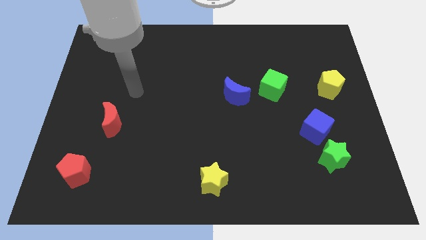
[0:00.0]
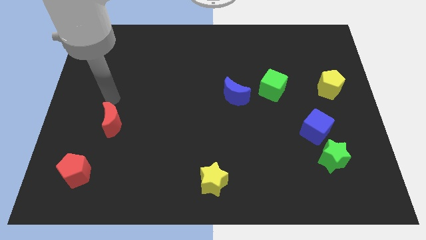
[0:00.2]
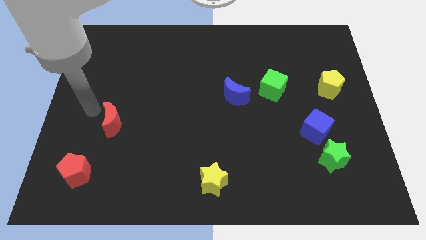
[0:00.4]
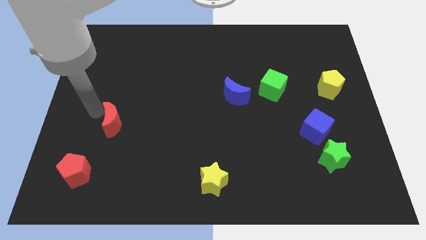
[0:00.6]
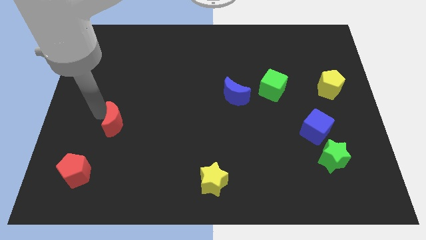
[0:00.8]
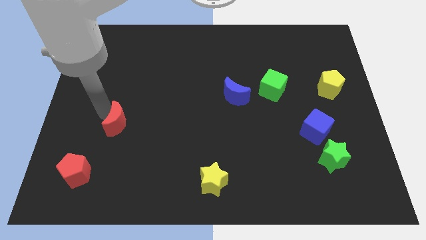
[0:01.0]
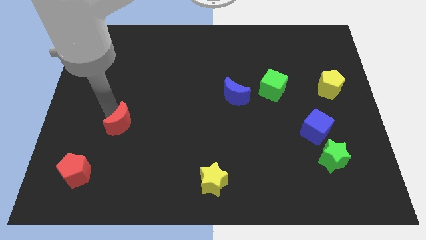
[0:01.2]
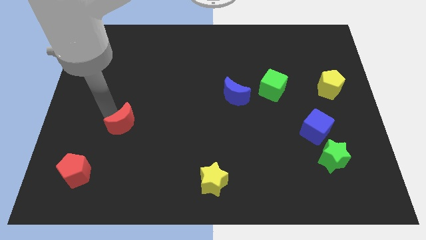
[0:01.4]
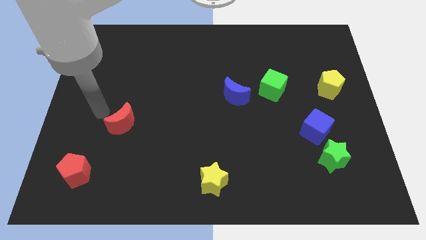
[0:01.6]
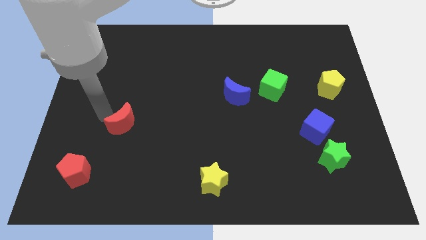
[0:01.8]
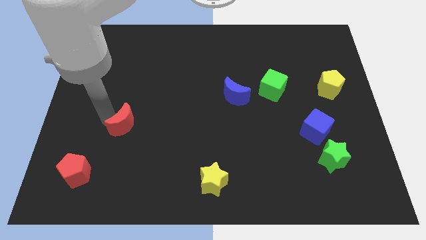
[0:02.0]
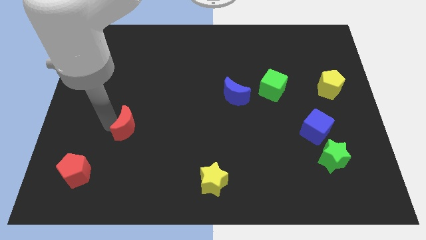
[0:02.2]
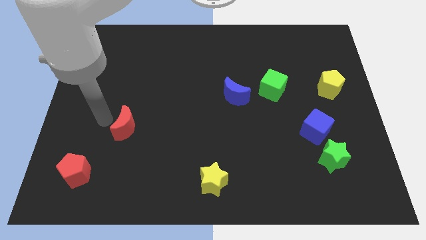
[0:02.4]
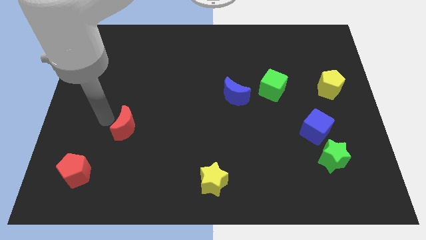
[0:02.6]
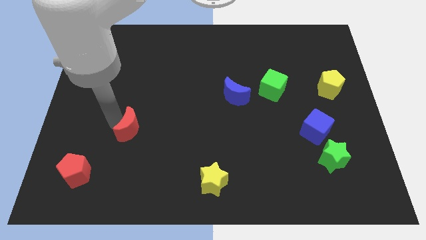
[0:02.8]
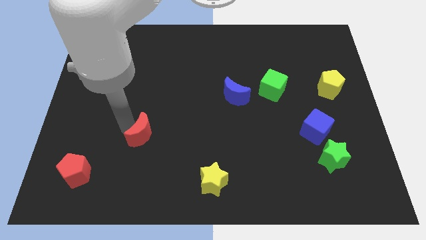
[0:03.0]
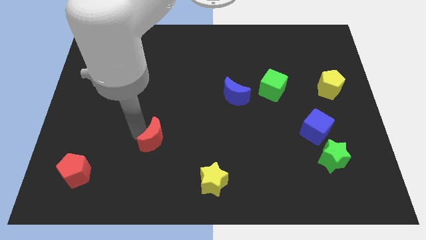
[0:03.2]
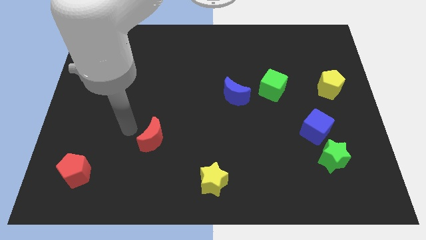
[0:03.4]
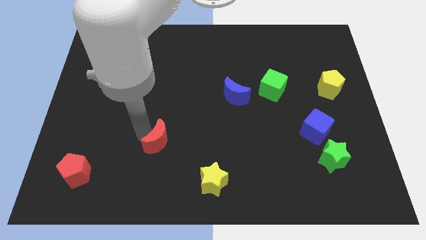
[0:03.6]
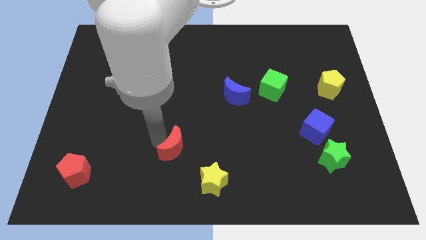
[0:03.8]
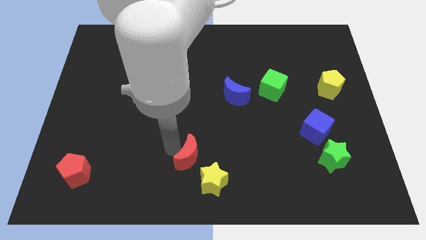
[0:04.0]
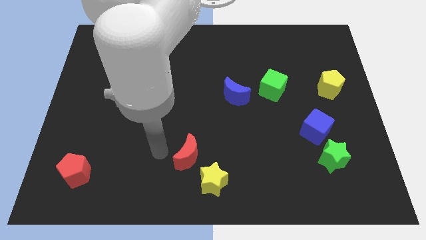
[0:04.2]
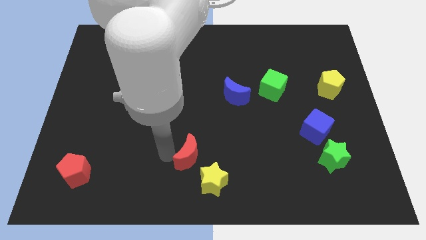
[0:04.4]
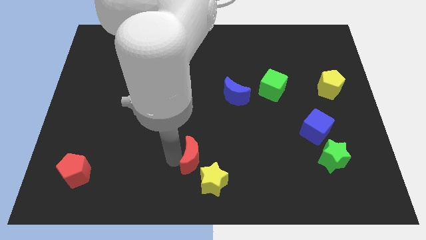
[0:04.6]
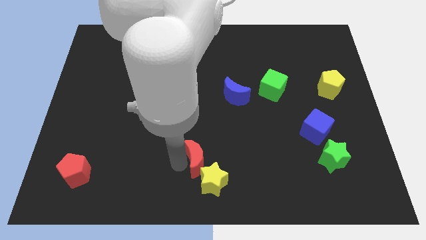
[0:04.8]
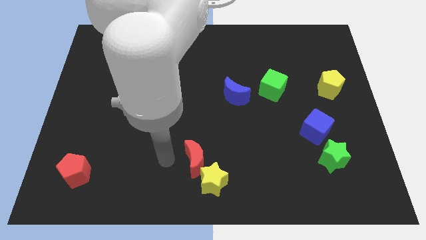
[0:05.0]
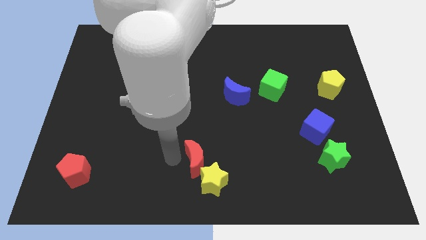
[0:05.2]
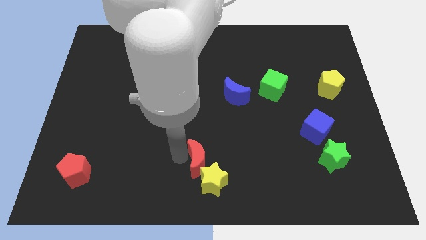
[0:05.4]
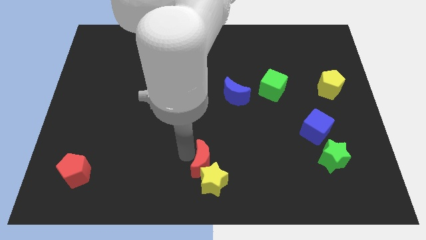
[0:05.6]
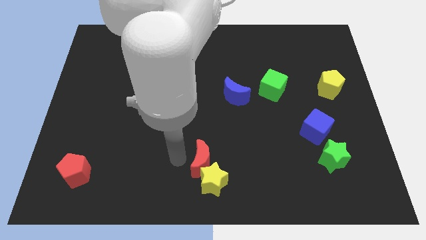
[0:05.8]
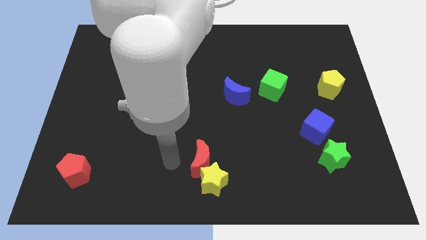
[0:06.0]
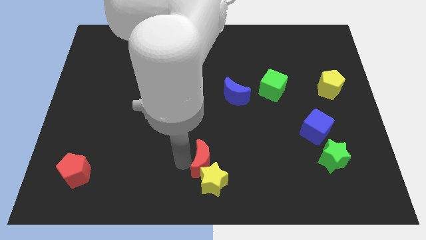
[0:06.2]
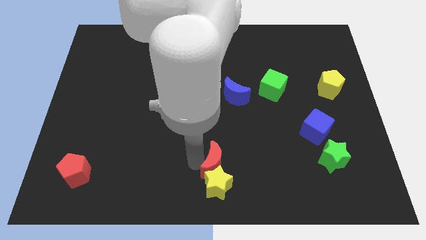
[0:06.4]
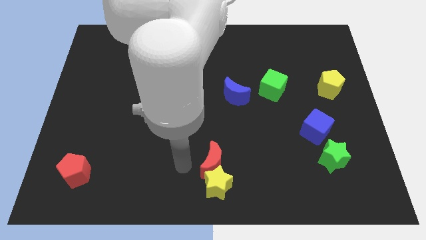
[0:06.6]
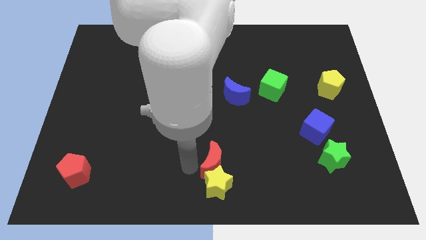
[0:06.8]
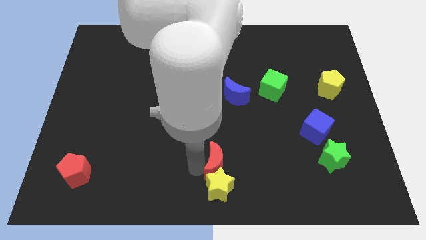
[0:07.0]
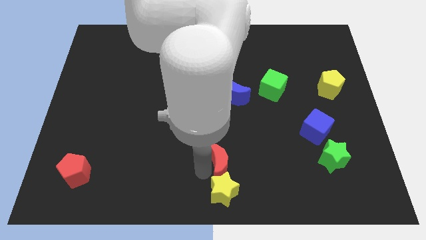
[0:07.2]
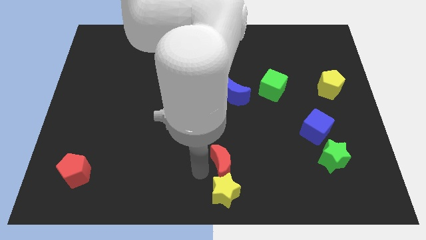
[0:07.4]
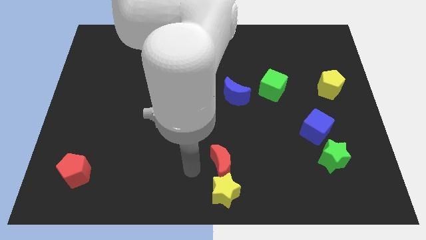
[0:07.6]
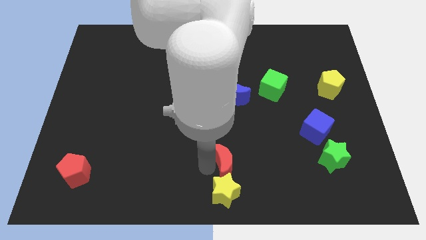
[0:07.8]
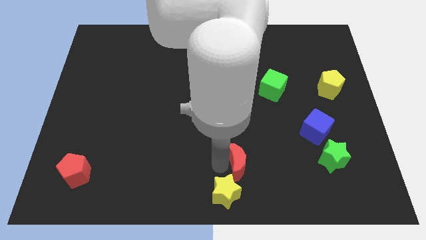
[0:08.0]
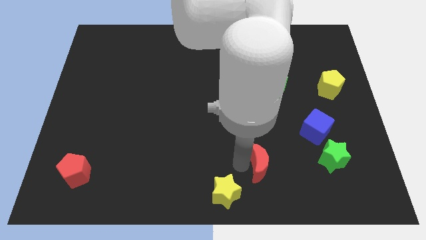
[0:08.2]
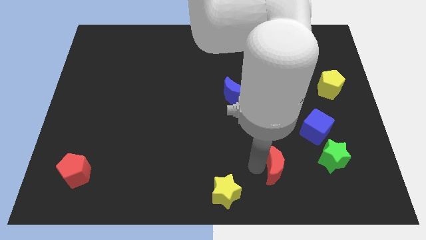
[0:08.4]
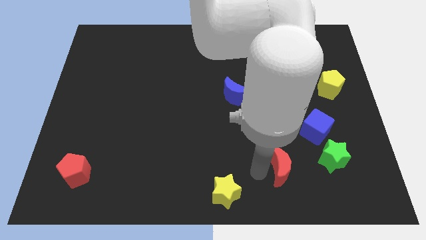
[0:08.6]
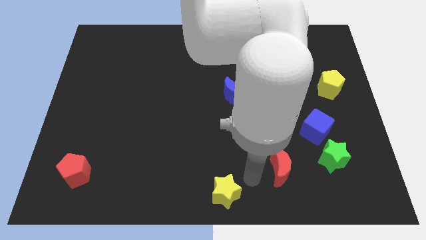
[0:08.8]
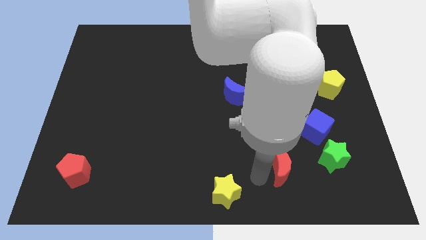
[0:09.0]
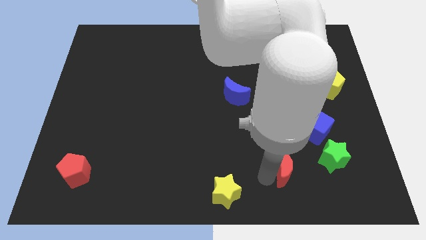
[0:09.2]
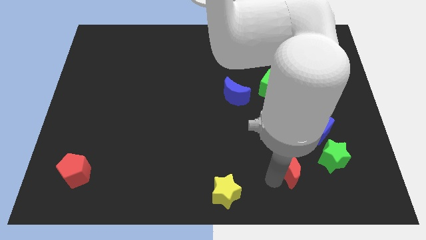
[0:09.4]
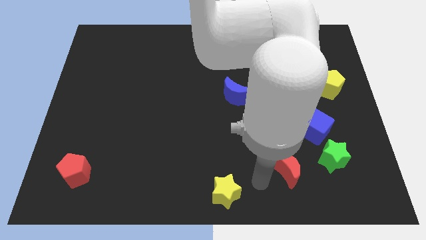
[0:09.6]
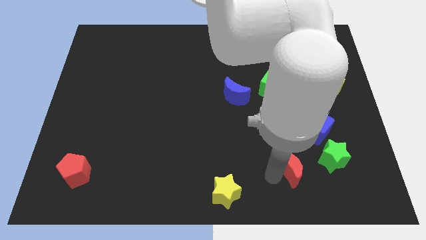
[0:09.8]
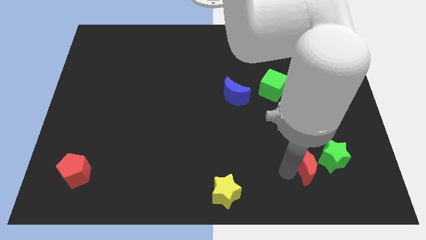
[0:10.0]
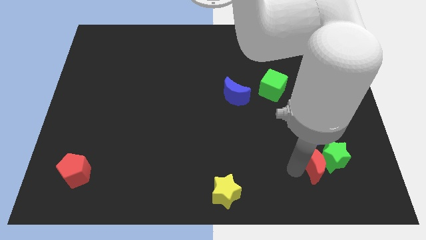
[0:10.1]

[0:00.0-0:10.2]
move the red moon next to the green star

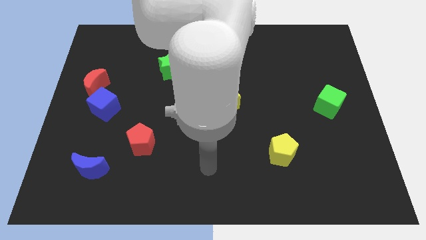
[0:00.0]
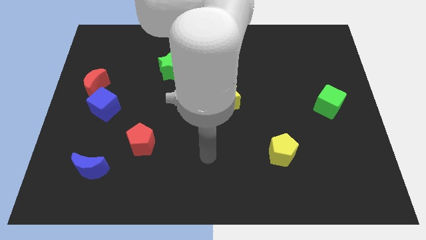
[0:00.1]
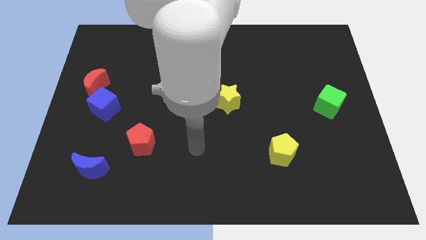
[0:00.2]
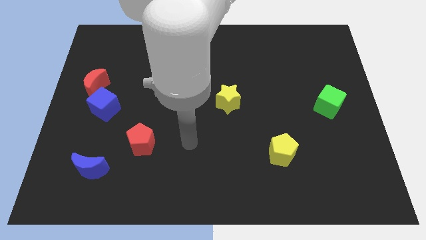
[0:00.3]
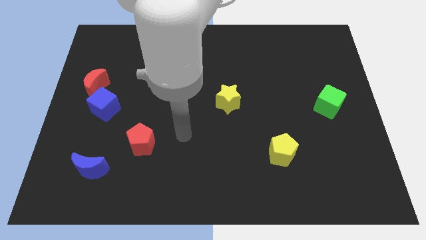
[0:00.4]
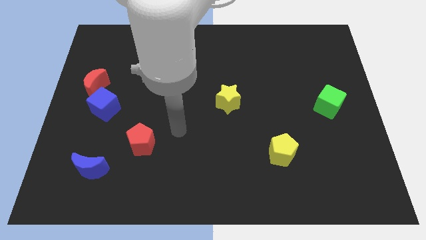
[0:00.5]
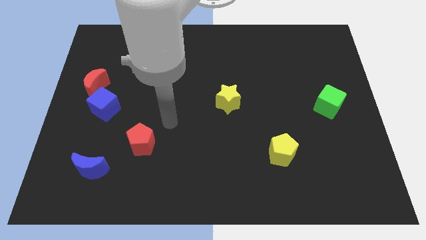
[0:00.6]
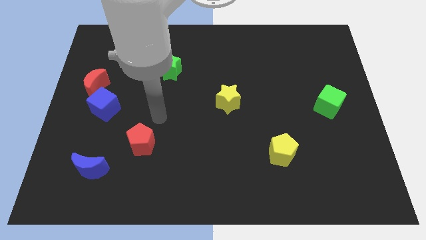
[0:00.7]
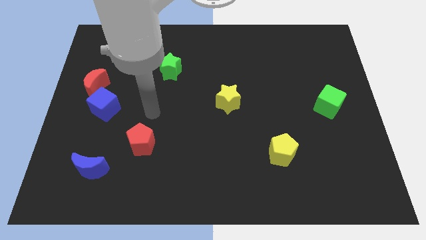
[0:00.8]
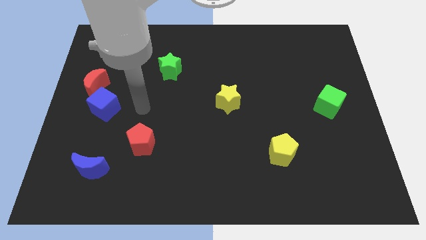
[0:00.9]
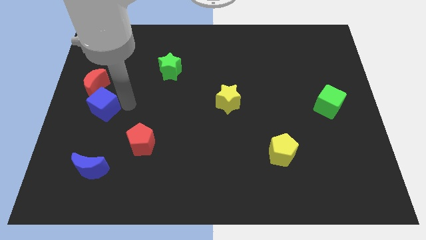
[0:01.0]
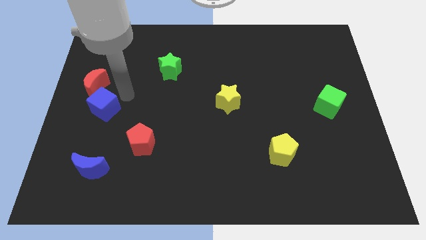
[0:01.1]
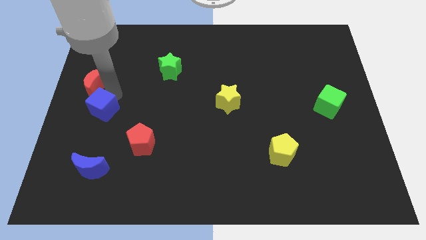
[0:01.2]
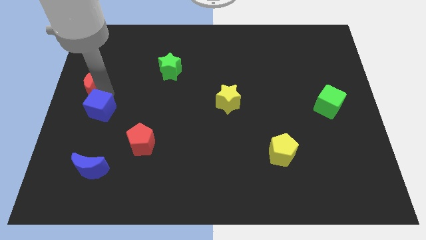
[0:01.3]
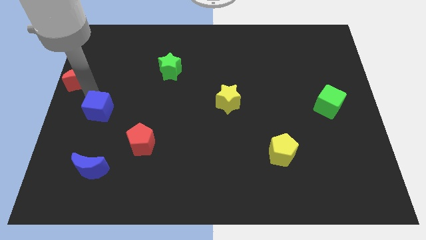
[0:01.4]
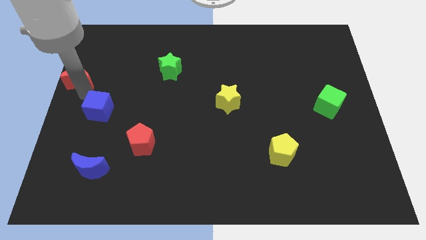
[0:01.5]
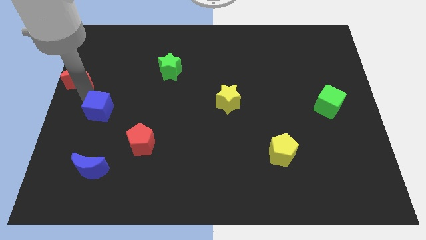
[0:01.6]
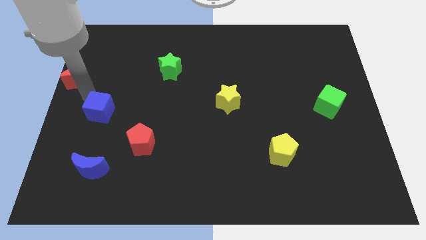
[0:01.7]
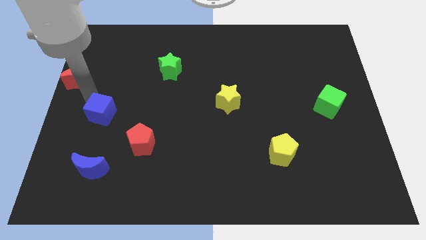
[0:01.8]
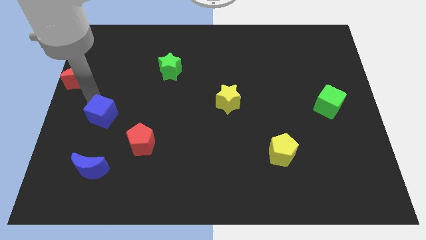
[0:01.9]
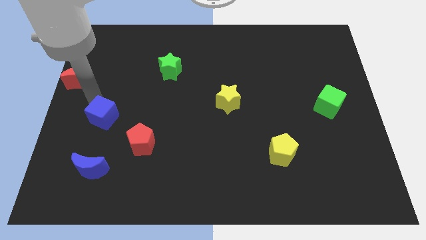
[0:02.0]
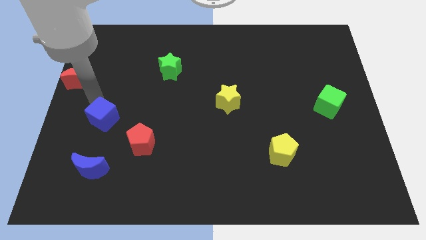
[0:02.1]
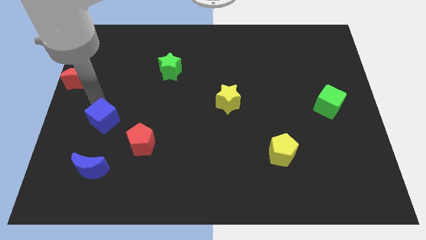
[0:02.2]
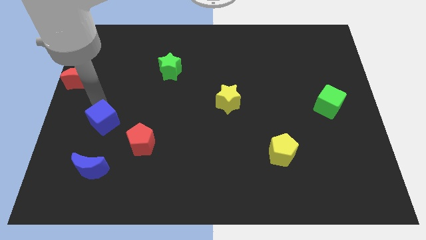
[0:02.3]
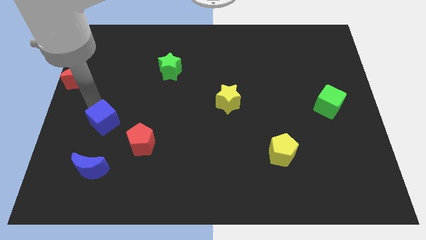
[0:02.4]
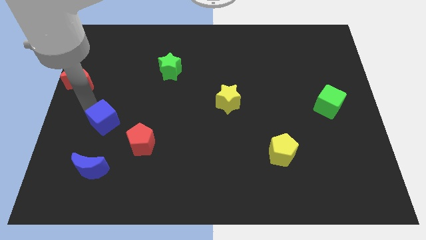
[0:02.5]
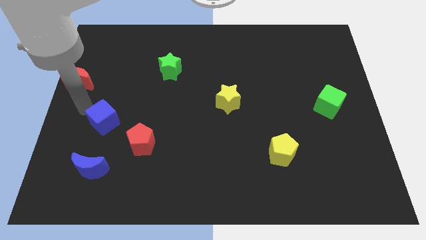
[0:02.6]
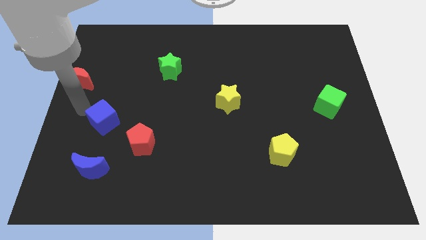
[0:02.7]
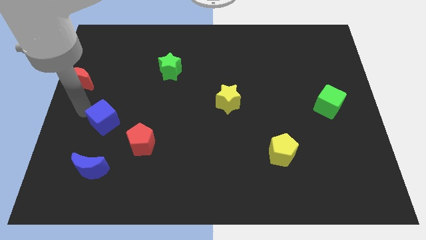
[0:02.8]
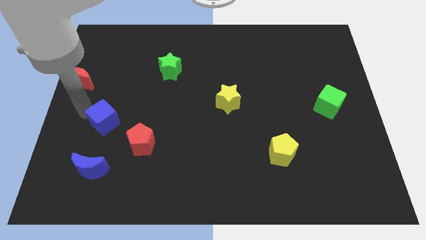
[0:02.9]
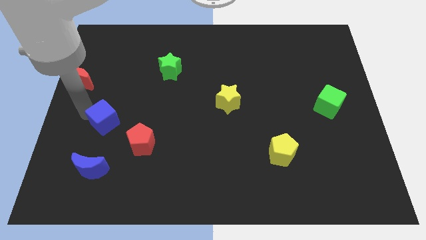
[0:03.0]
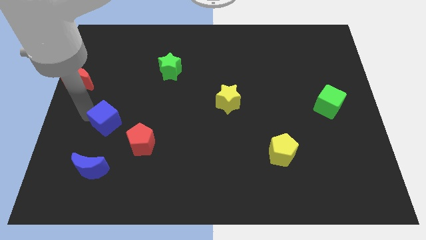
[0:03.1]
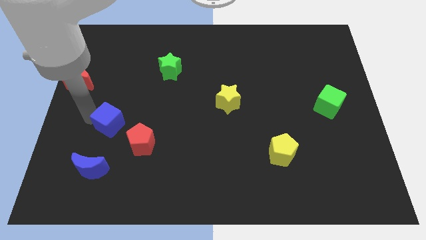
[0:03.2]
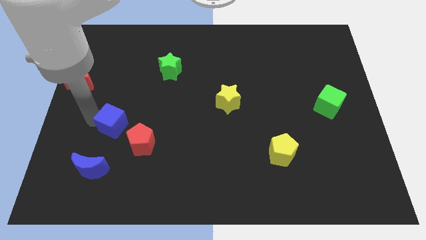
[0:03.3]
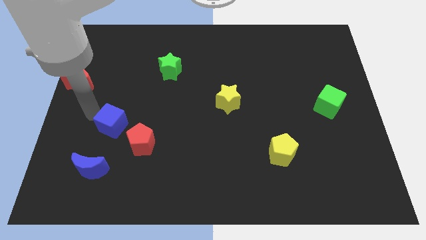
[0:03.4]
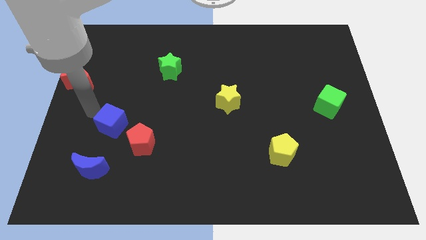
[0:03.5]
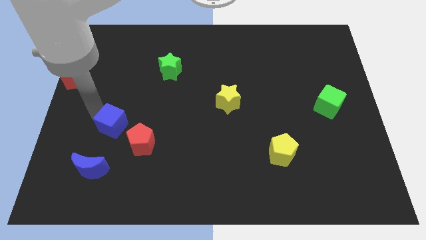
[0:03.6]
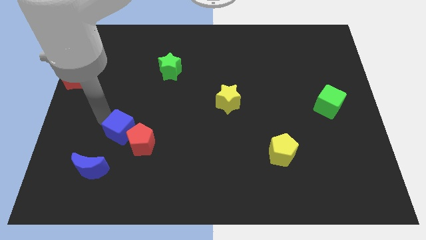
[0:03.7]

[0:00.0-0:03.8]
push the blue cube towards the red pentagon
